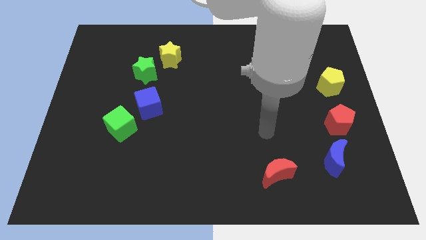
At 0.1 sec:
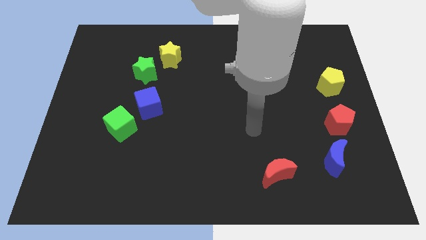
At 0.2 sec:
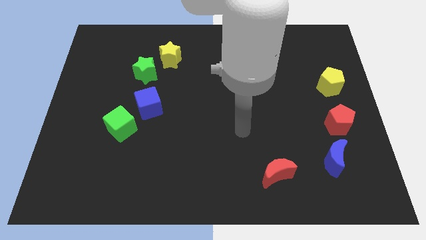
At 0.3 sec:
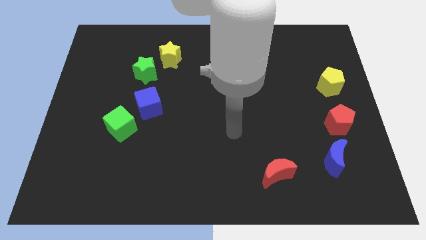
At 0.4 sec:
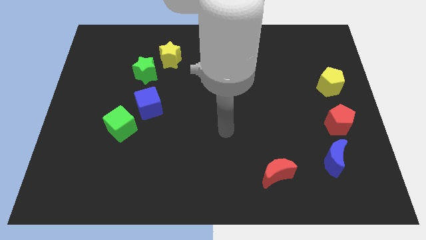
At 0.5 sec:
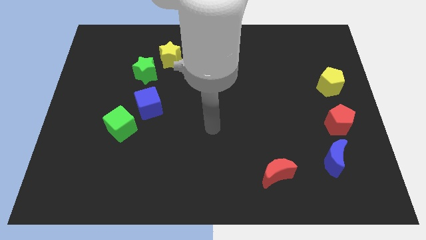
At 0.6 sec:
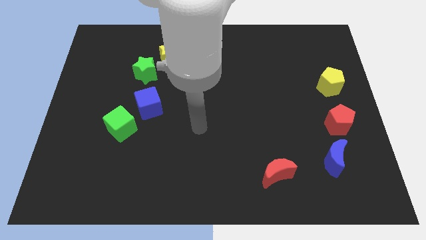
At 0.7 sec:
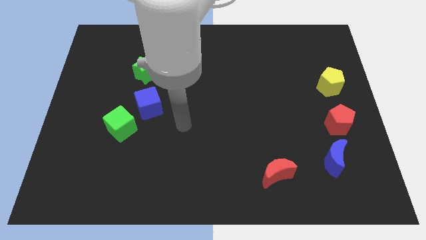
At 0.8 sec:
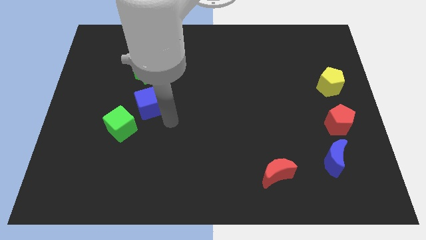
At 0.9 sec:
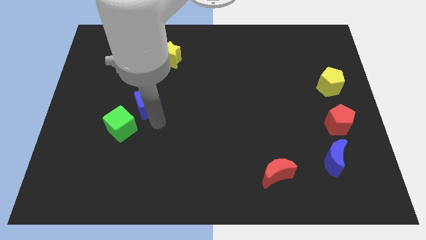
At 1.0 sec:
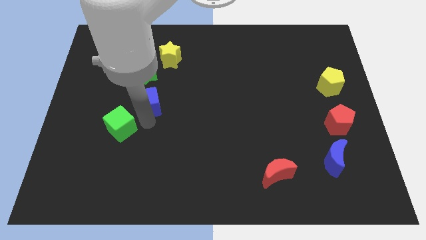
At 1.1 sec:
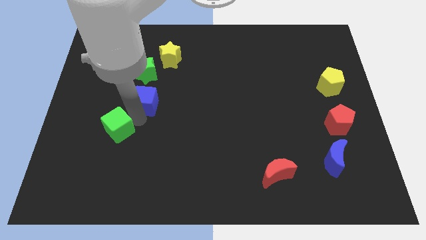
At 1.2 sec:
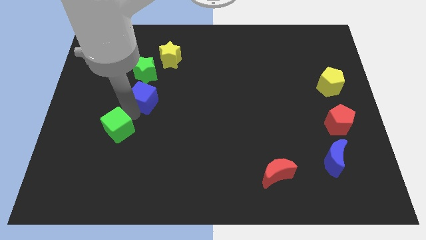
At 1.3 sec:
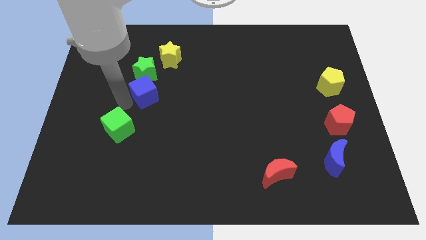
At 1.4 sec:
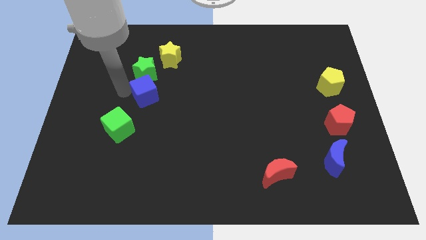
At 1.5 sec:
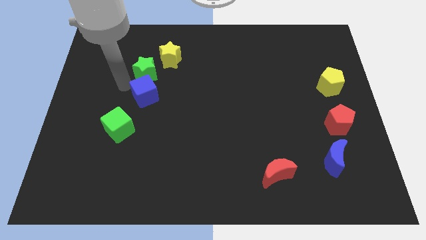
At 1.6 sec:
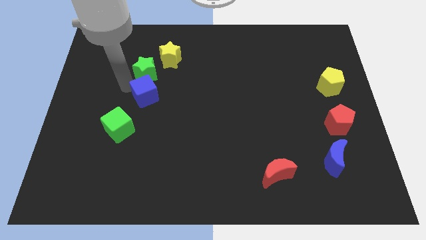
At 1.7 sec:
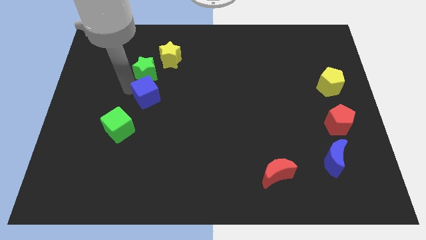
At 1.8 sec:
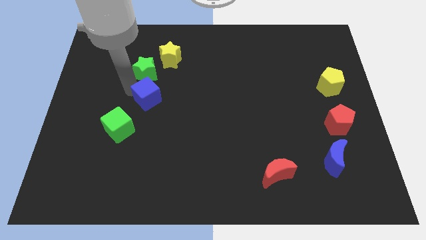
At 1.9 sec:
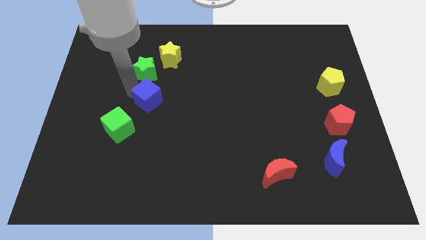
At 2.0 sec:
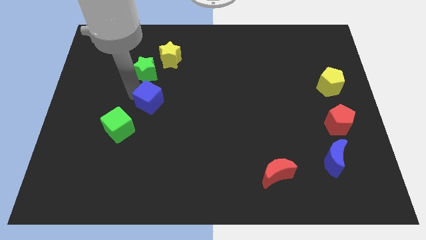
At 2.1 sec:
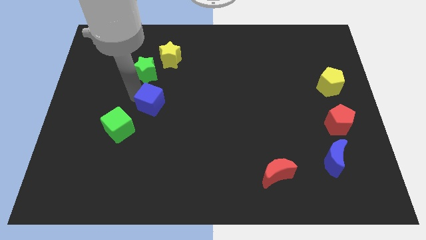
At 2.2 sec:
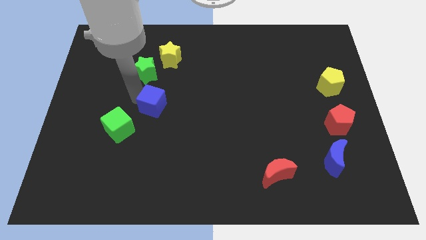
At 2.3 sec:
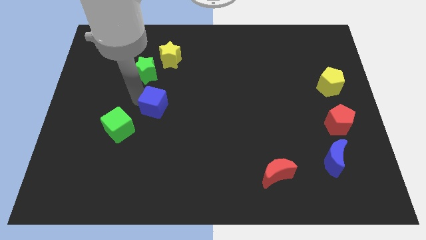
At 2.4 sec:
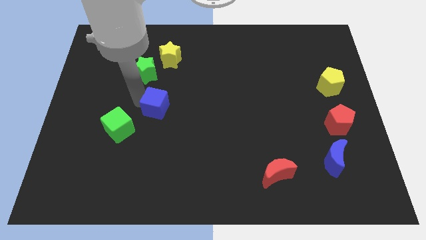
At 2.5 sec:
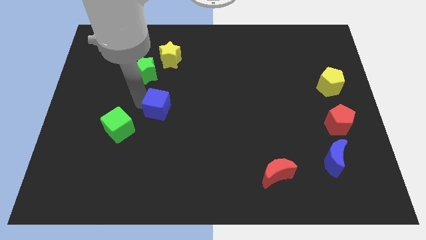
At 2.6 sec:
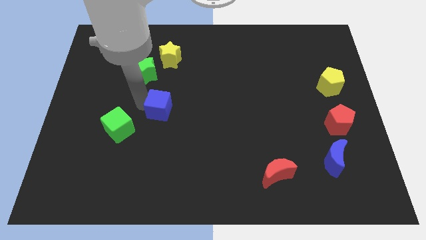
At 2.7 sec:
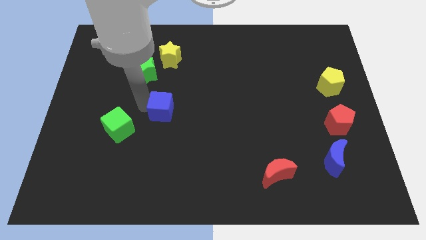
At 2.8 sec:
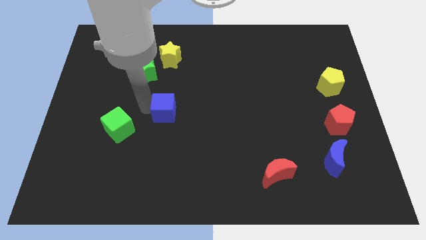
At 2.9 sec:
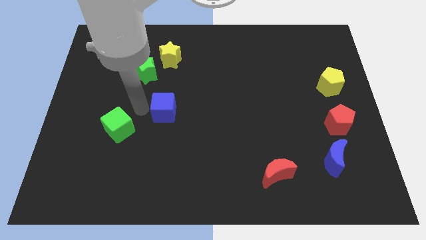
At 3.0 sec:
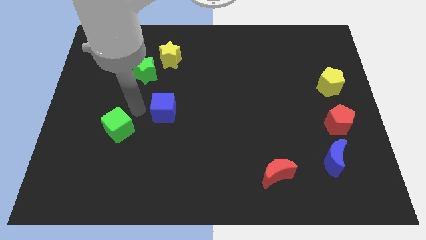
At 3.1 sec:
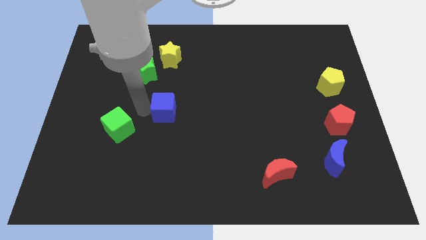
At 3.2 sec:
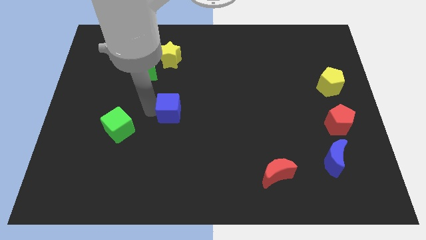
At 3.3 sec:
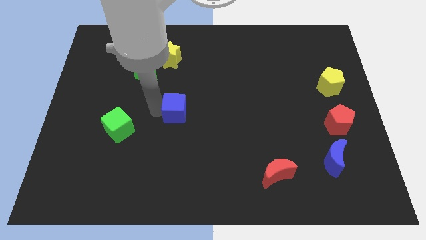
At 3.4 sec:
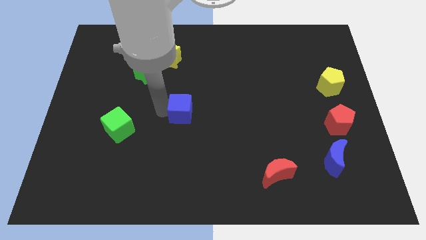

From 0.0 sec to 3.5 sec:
slide the blue cube slightly to the right

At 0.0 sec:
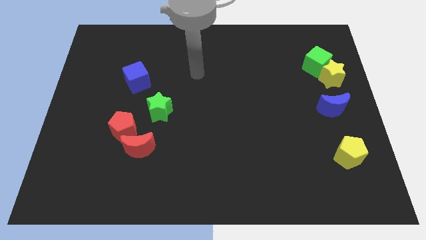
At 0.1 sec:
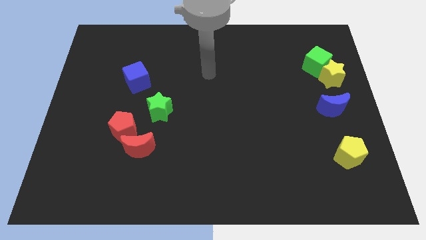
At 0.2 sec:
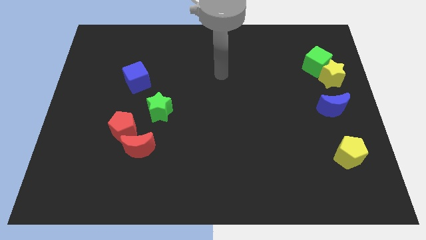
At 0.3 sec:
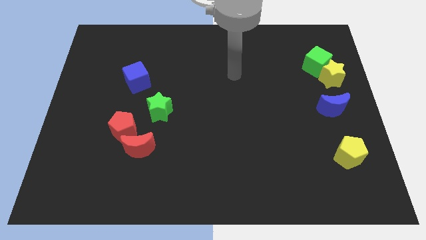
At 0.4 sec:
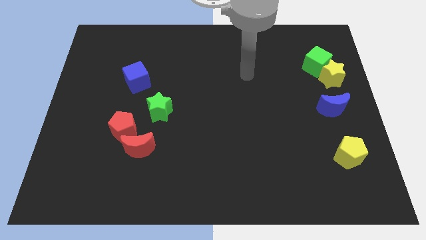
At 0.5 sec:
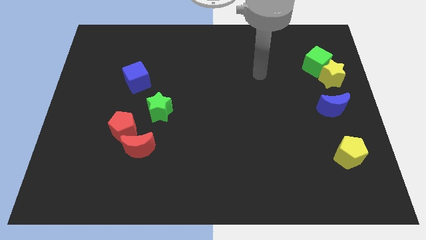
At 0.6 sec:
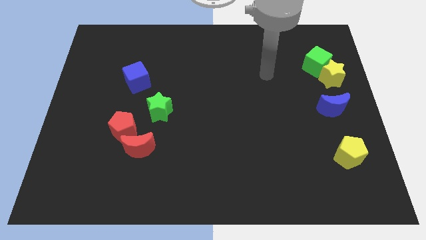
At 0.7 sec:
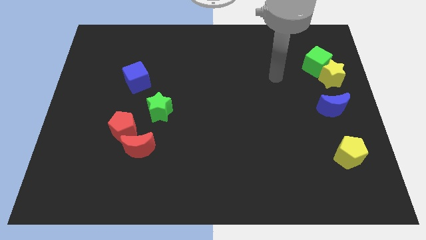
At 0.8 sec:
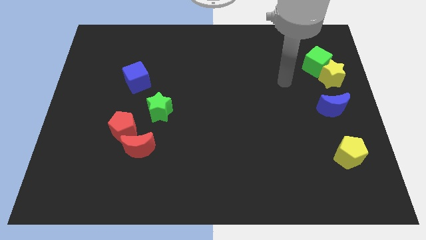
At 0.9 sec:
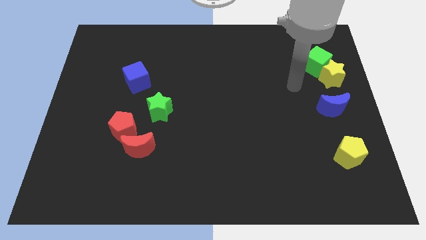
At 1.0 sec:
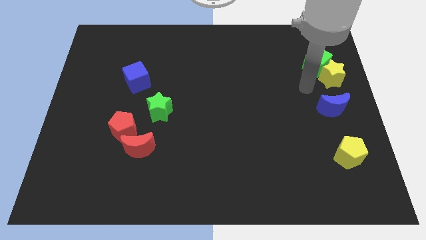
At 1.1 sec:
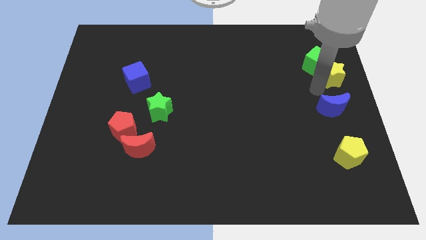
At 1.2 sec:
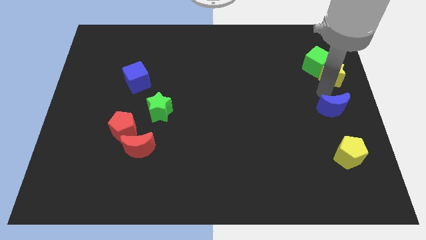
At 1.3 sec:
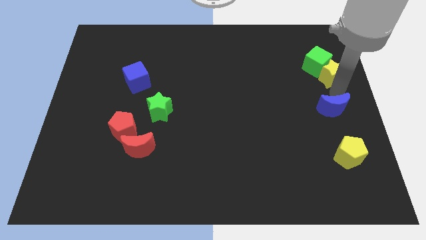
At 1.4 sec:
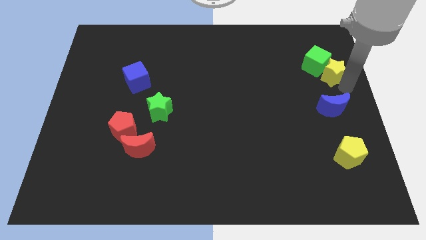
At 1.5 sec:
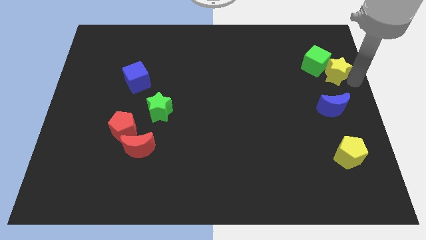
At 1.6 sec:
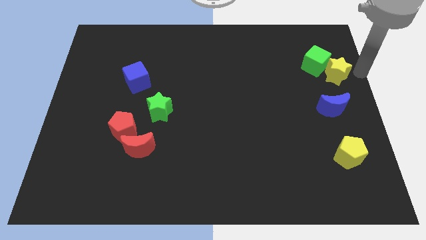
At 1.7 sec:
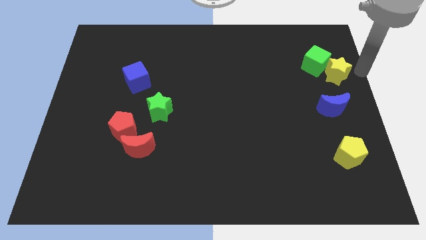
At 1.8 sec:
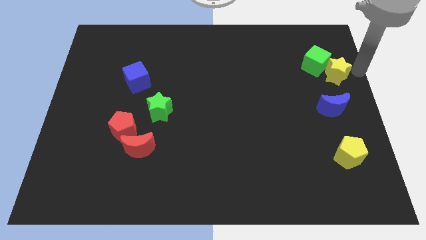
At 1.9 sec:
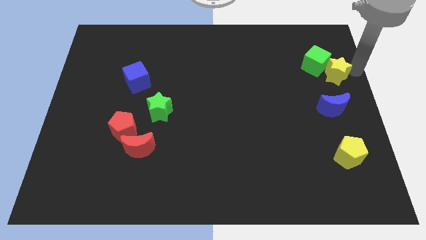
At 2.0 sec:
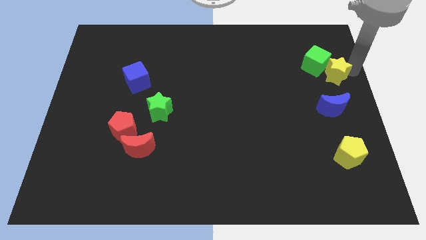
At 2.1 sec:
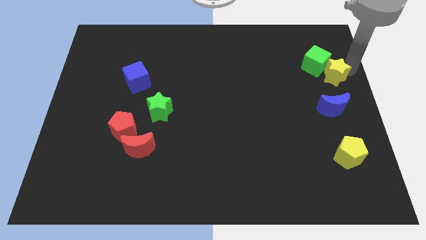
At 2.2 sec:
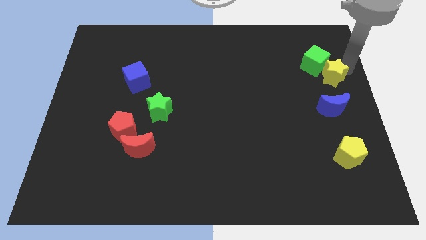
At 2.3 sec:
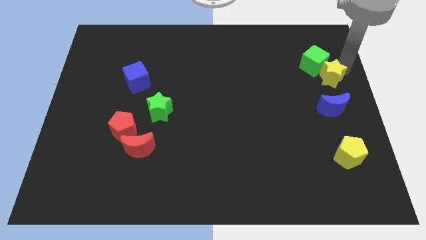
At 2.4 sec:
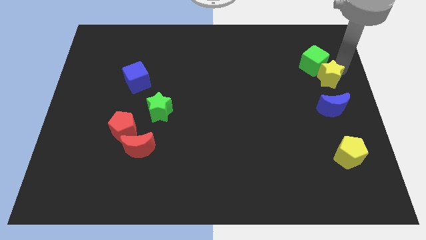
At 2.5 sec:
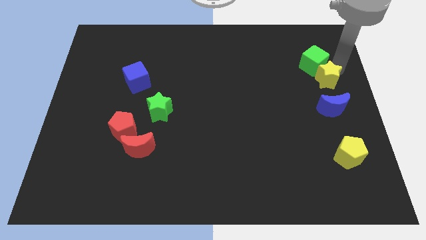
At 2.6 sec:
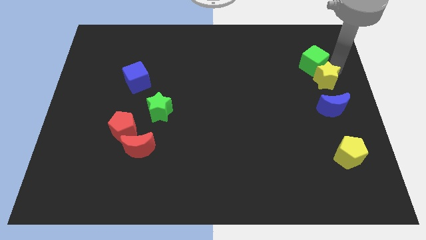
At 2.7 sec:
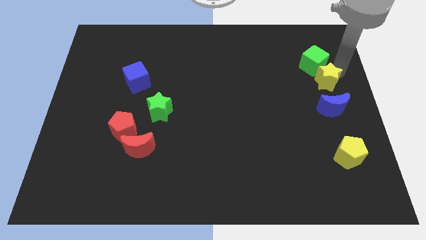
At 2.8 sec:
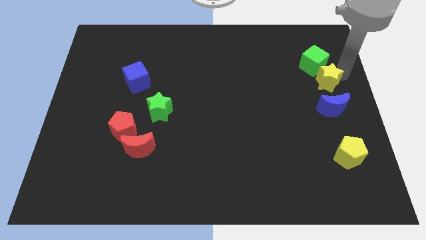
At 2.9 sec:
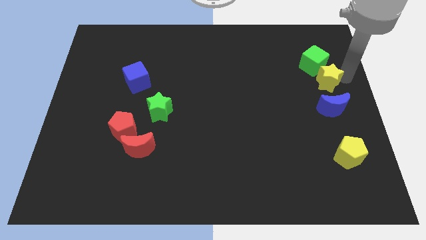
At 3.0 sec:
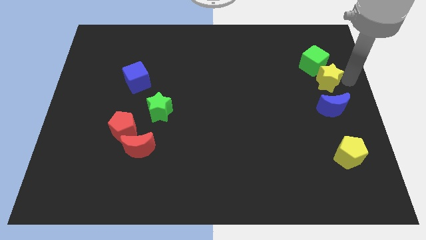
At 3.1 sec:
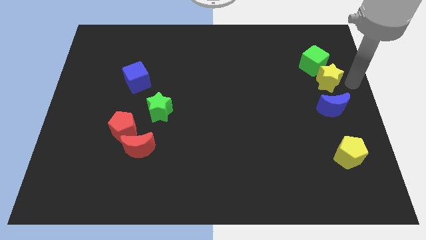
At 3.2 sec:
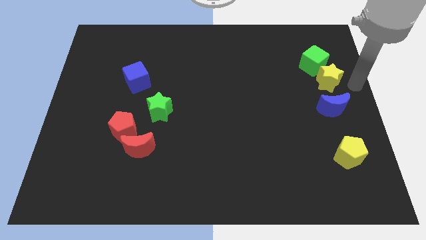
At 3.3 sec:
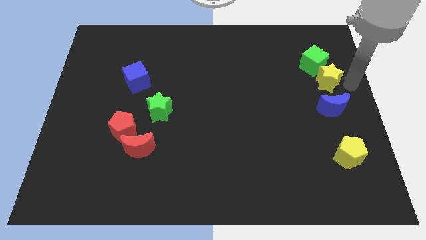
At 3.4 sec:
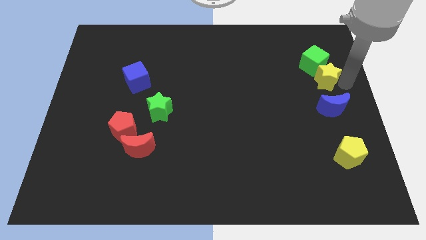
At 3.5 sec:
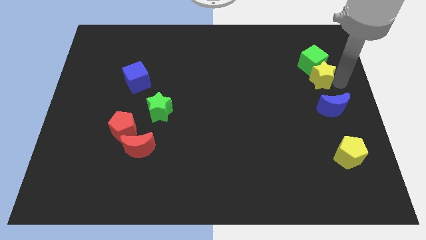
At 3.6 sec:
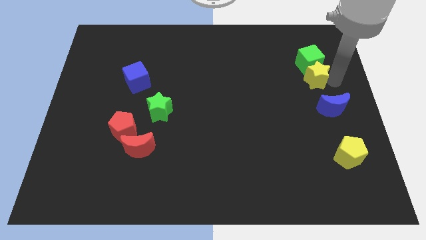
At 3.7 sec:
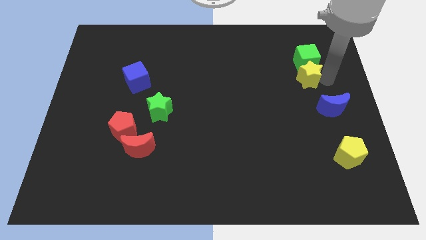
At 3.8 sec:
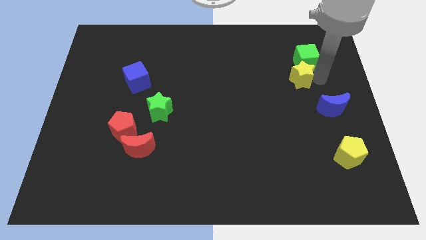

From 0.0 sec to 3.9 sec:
push the yellow star a little left

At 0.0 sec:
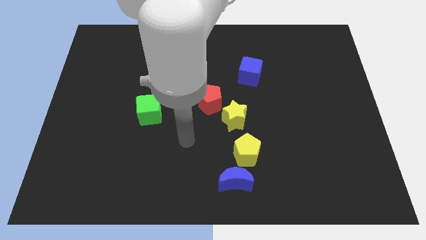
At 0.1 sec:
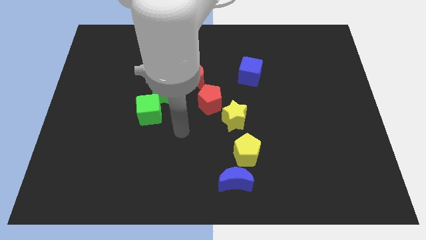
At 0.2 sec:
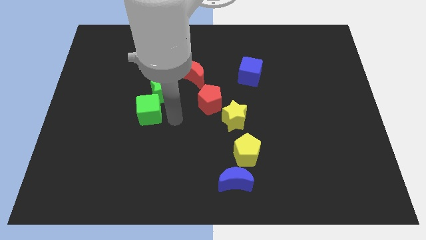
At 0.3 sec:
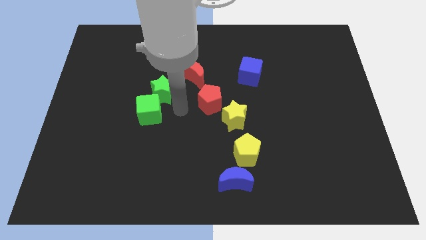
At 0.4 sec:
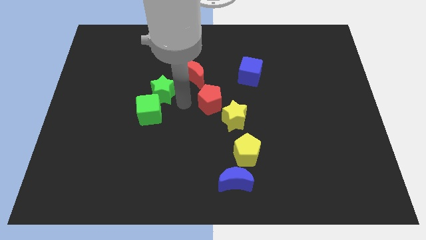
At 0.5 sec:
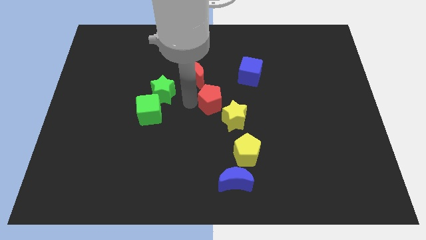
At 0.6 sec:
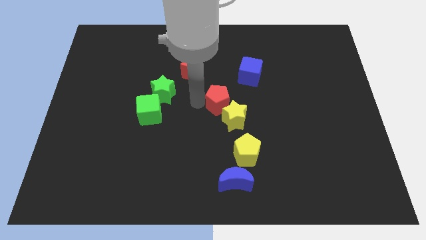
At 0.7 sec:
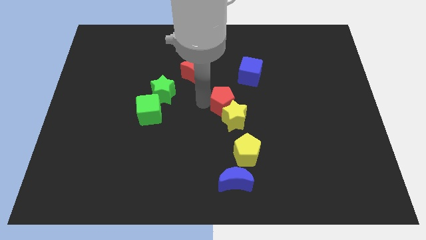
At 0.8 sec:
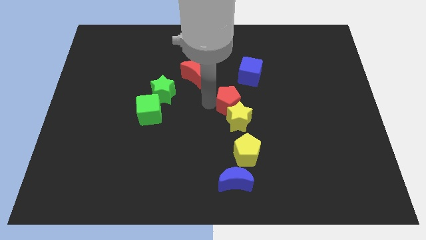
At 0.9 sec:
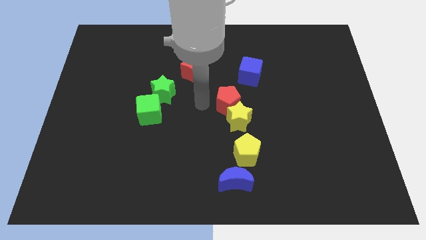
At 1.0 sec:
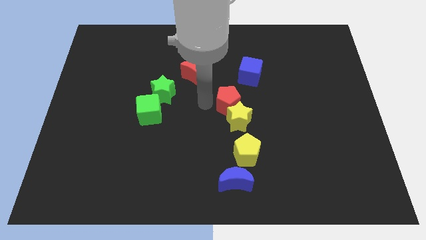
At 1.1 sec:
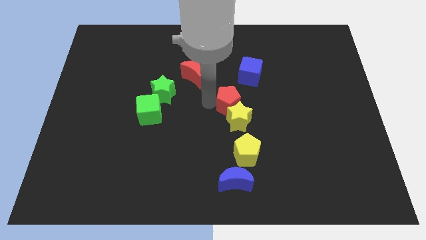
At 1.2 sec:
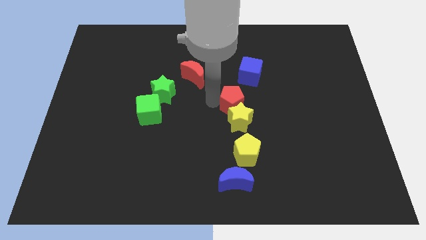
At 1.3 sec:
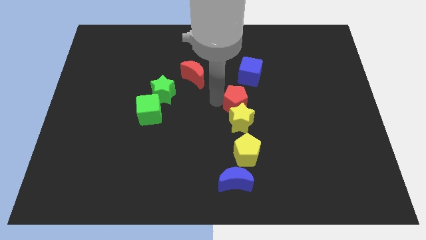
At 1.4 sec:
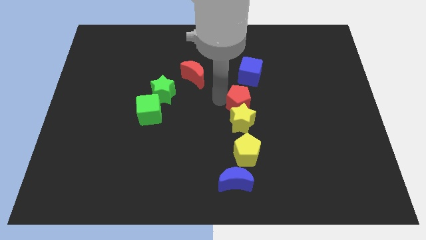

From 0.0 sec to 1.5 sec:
slide the red pentagon somewhat to the right
